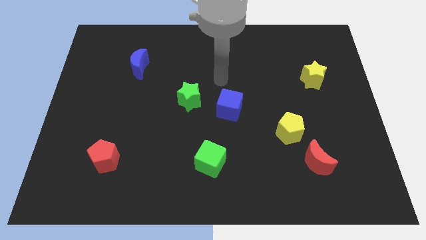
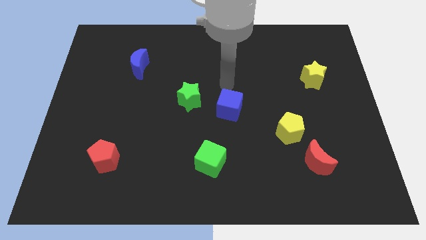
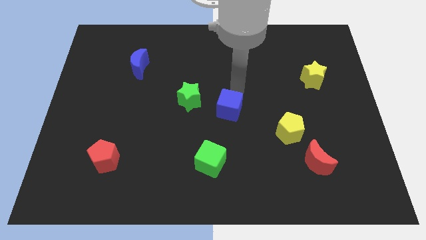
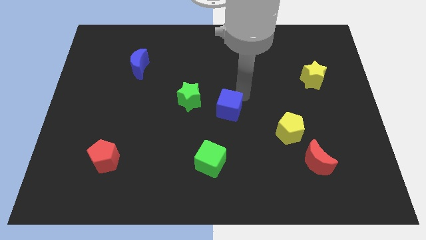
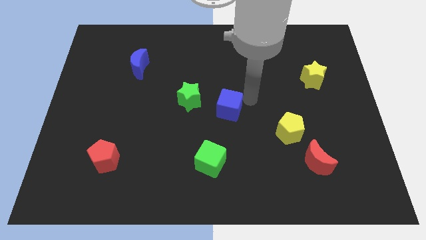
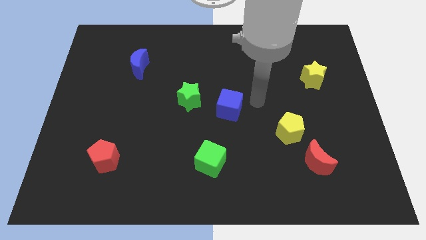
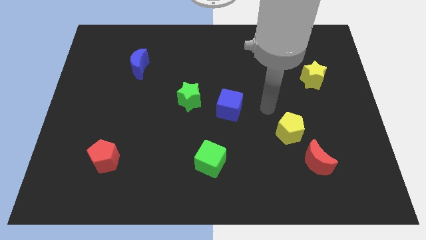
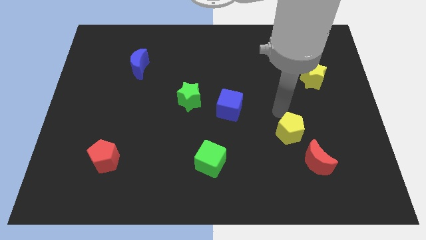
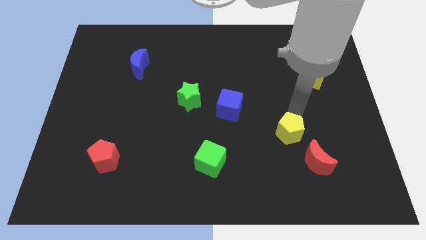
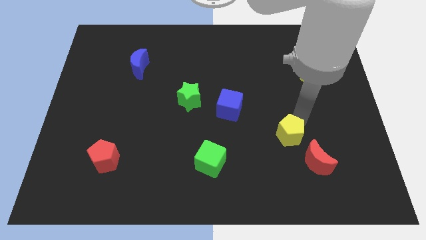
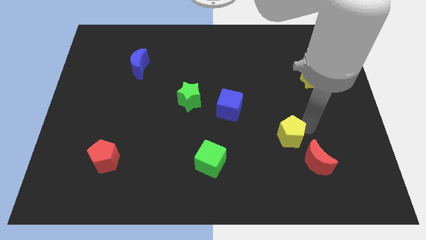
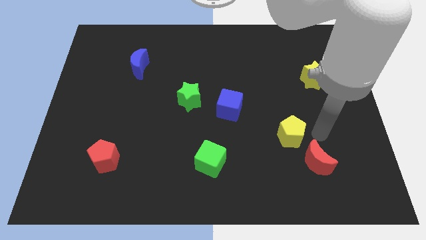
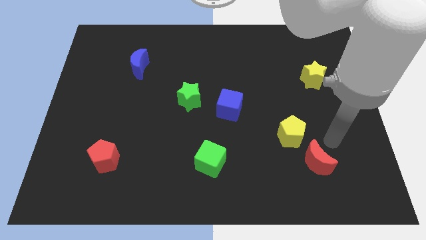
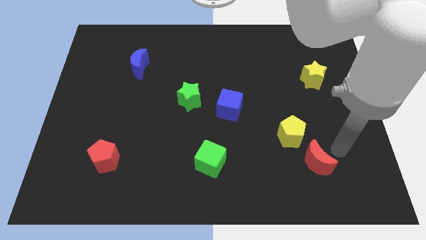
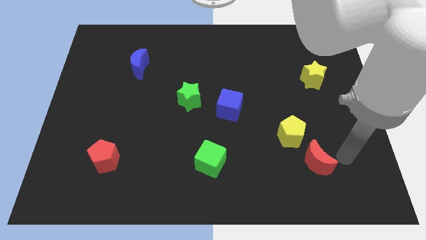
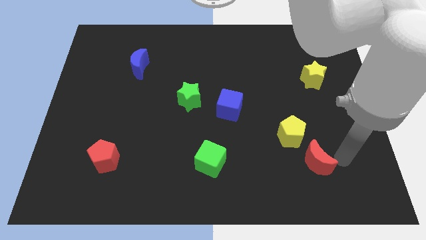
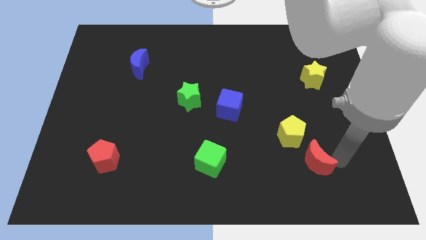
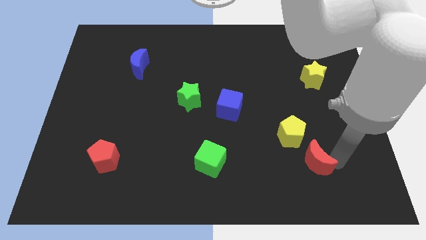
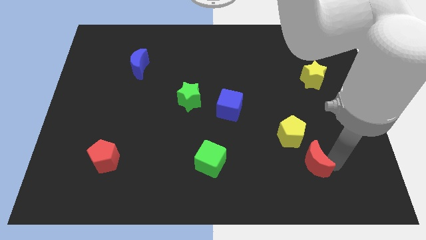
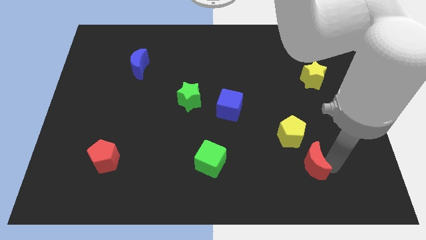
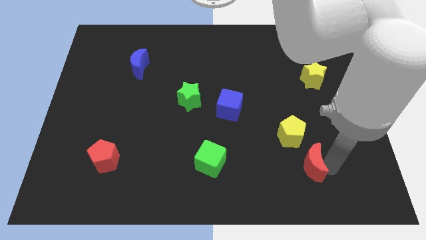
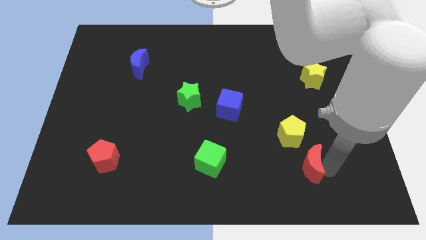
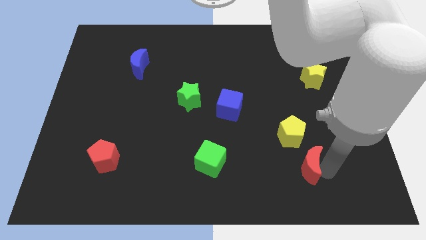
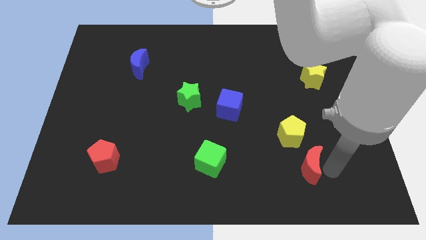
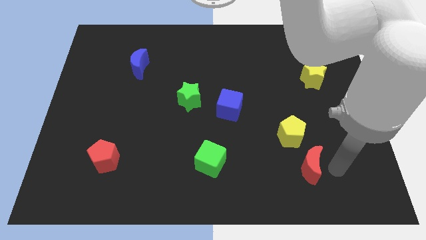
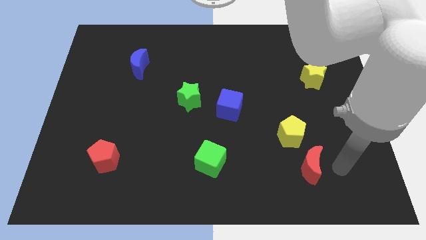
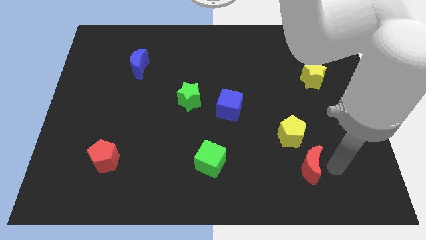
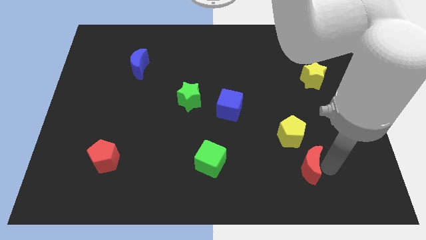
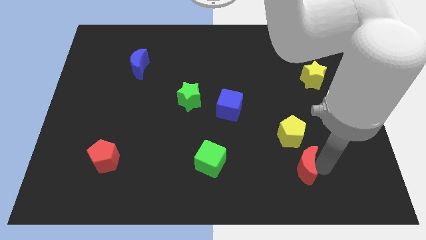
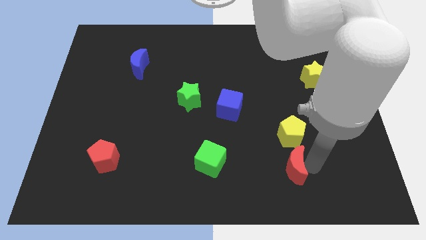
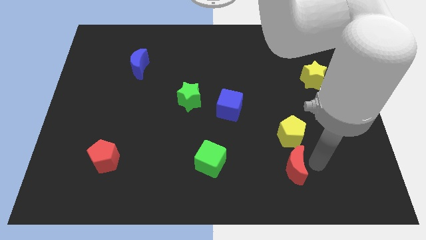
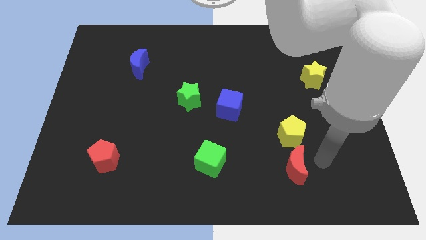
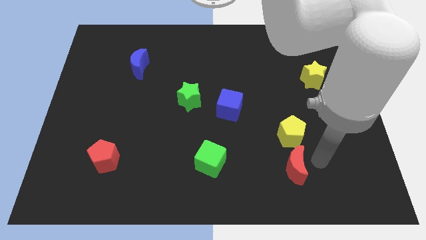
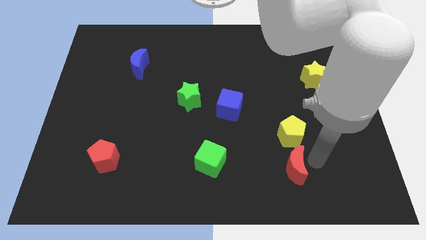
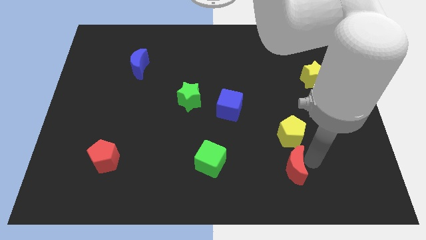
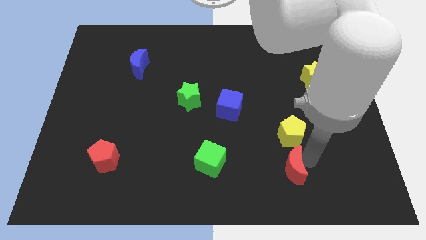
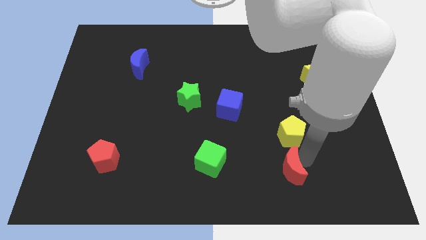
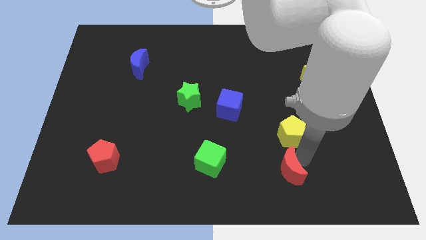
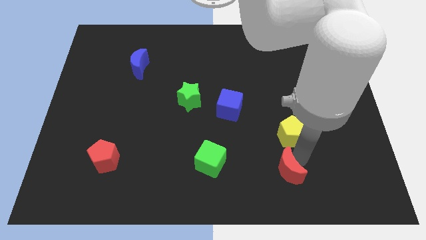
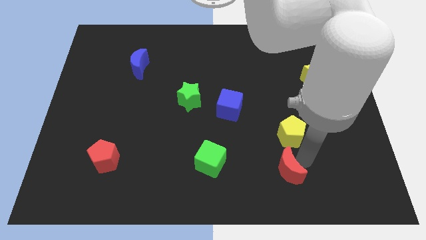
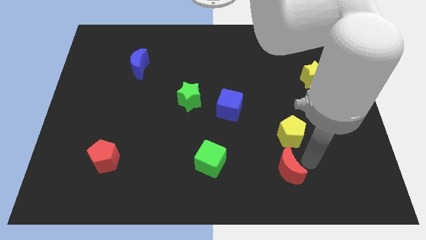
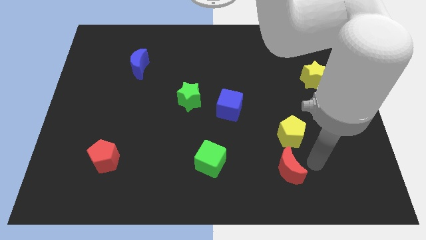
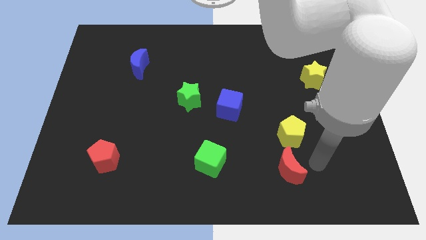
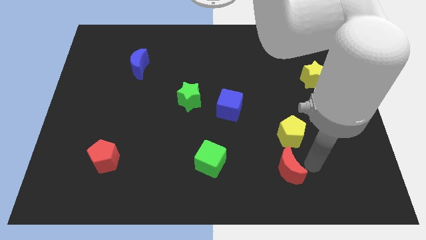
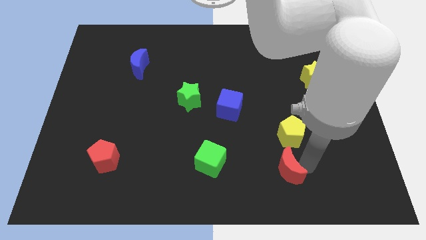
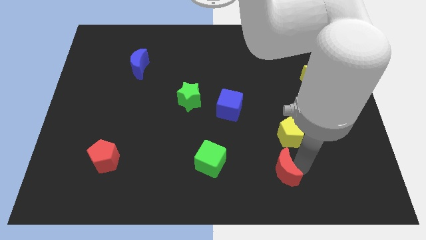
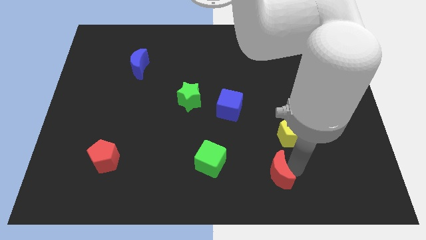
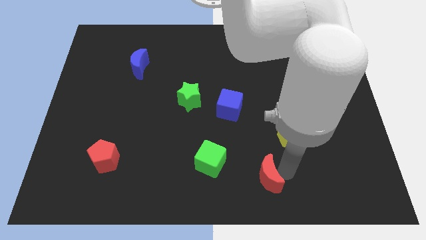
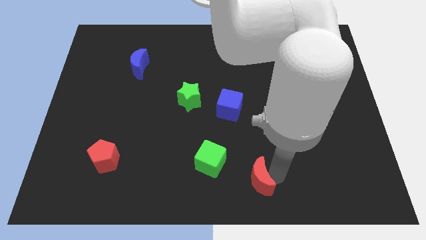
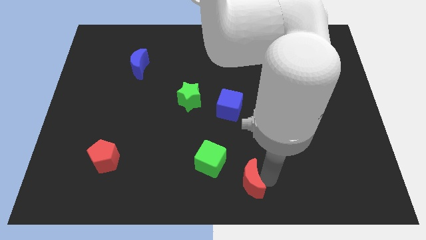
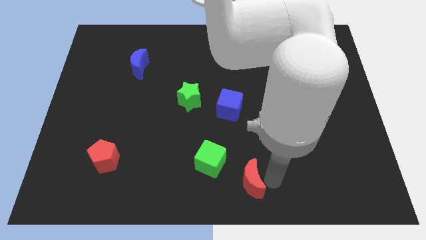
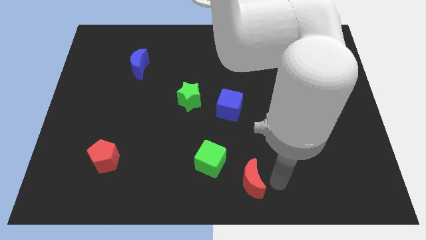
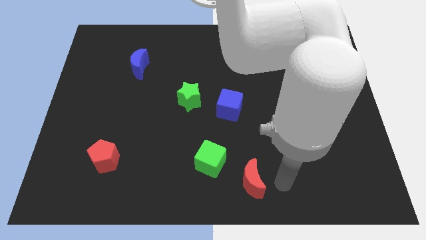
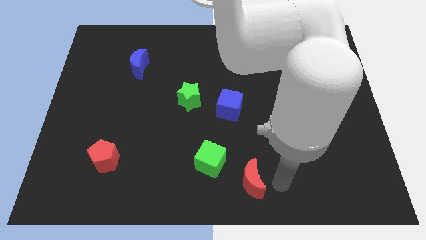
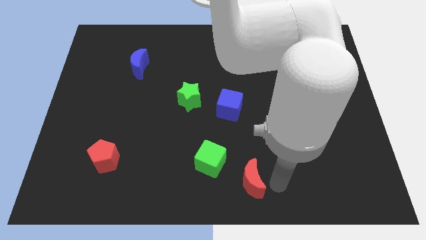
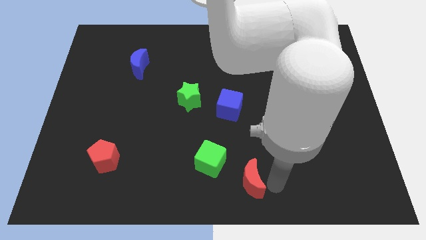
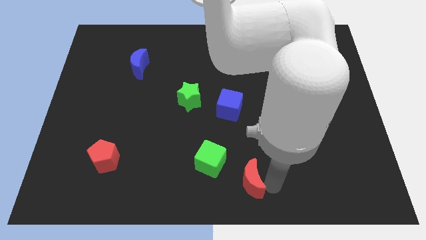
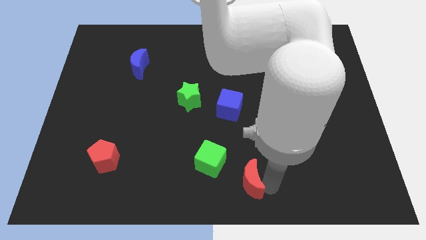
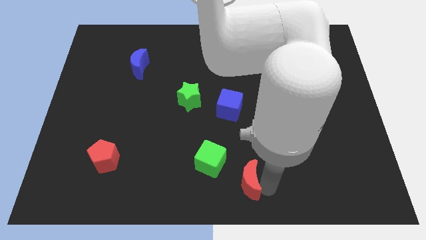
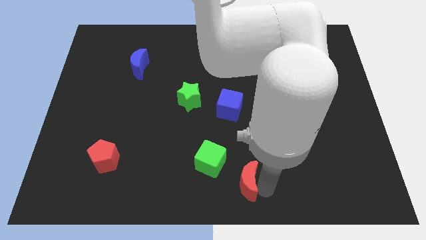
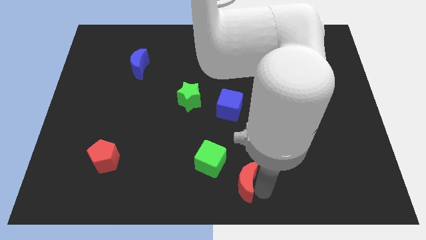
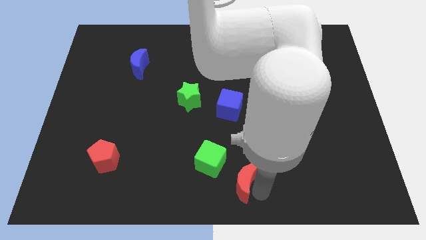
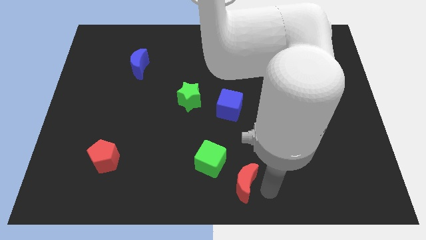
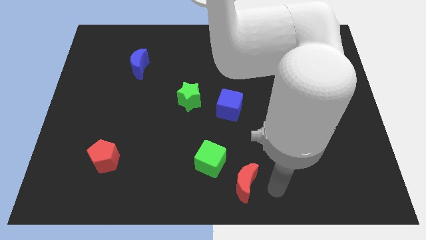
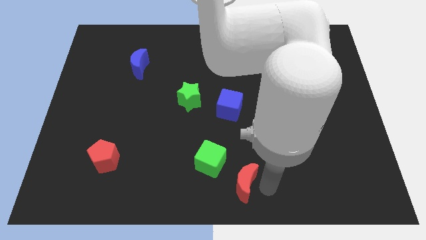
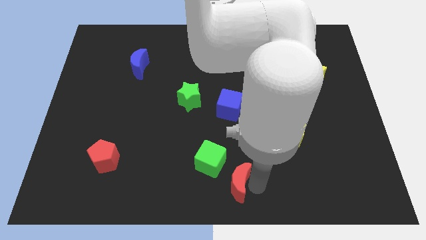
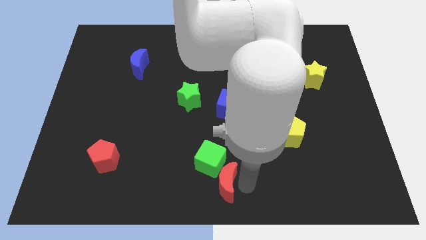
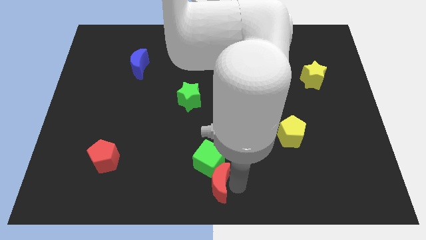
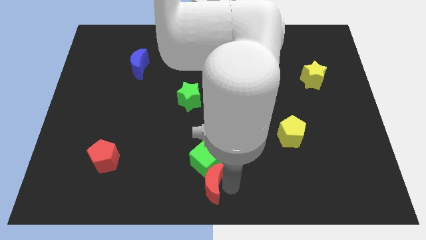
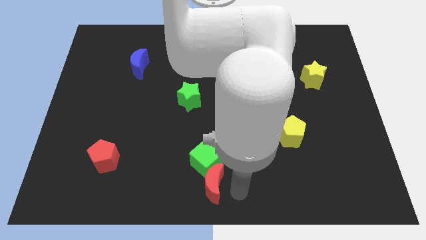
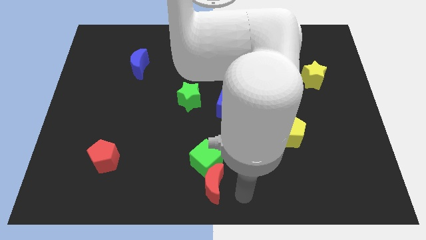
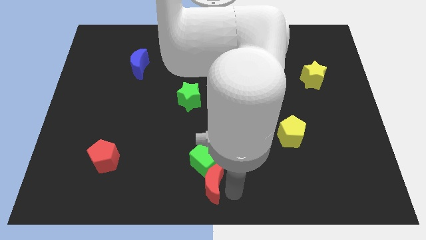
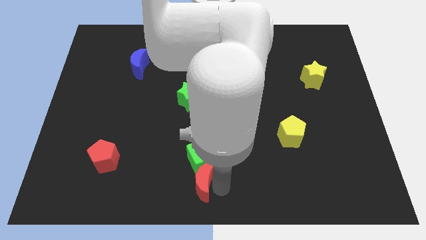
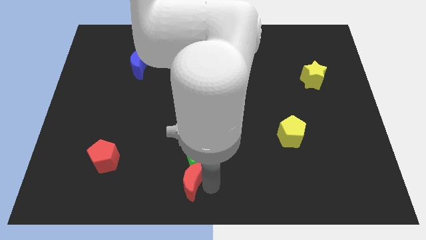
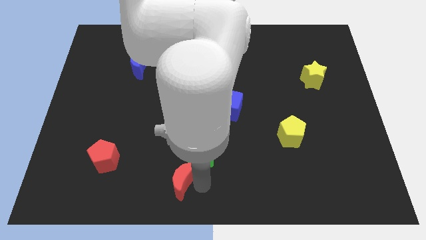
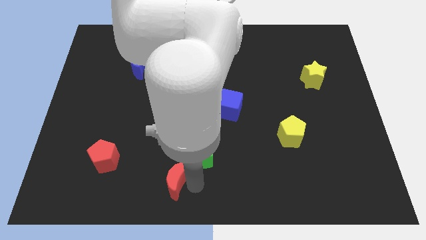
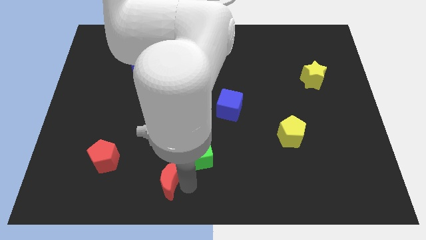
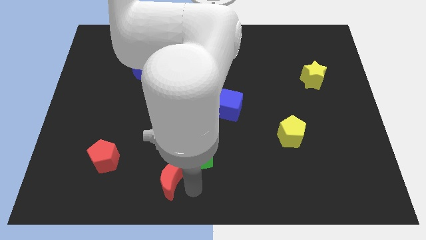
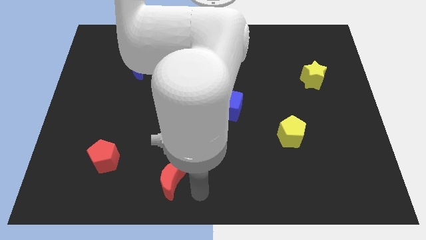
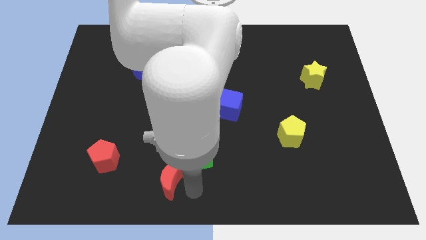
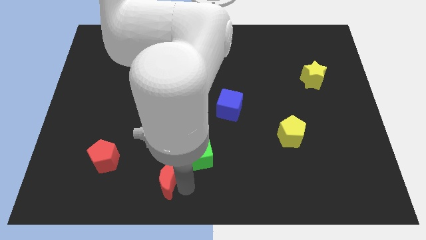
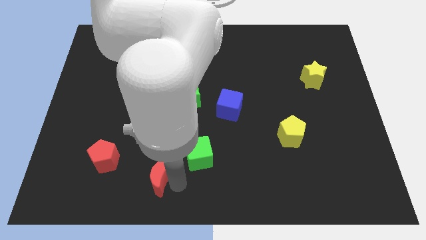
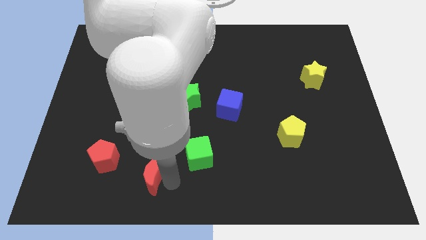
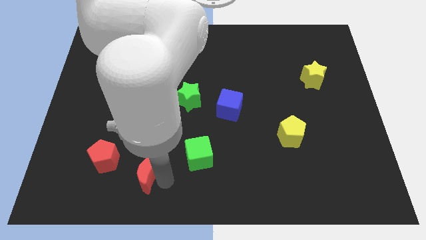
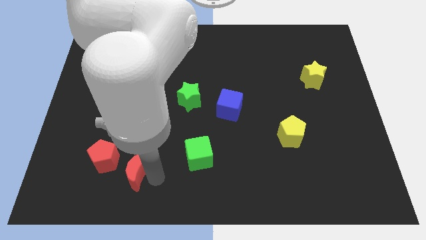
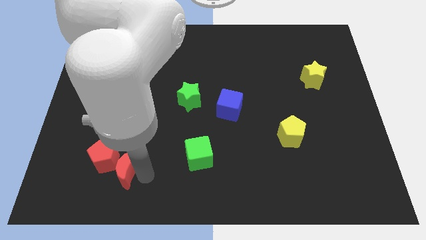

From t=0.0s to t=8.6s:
push the red moon to the red pentagon
